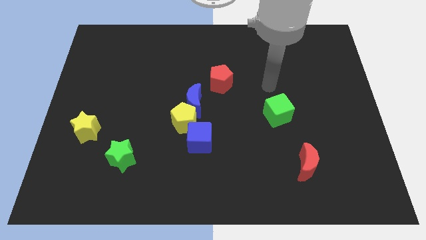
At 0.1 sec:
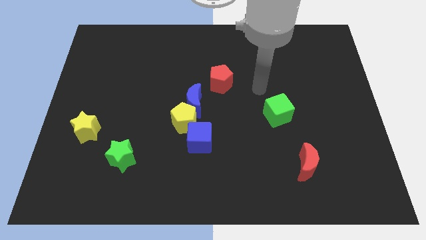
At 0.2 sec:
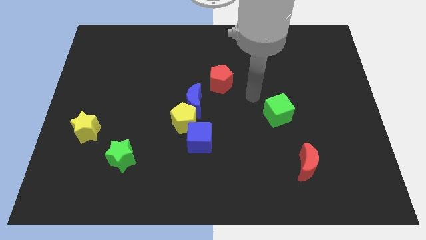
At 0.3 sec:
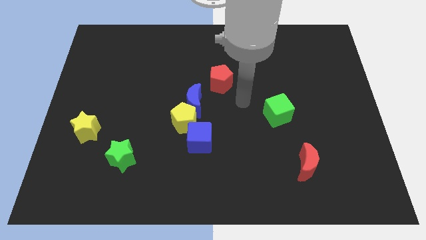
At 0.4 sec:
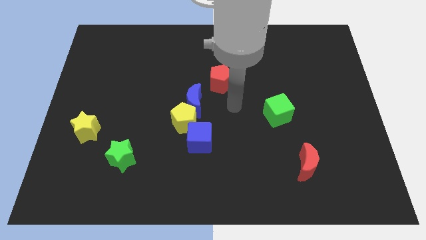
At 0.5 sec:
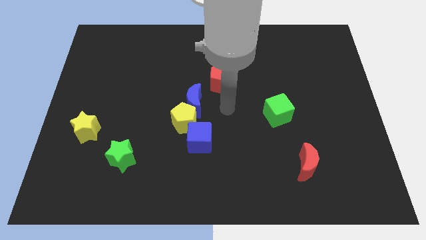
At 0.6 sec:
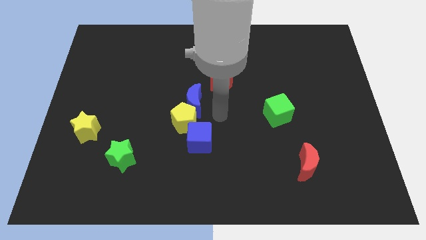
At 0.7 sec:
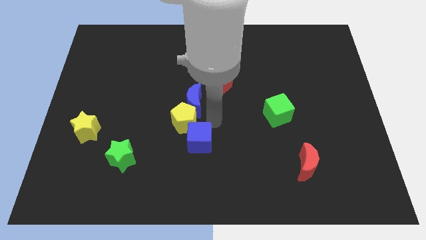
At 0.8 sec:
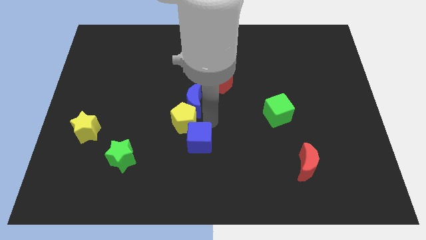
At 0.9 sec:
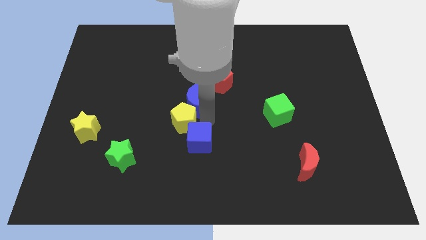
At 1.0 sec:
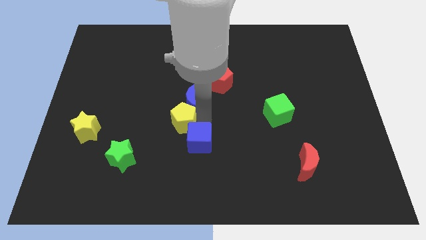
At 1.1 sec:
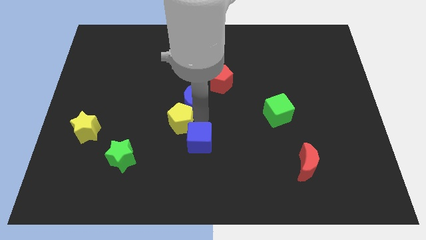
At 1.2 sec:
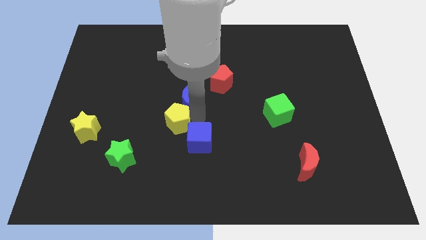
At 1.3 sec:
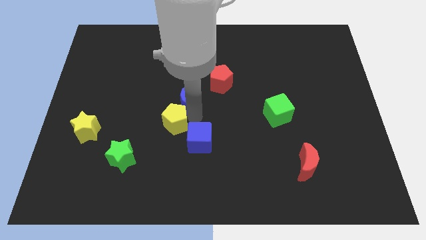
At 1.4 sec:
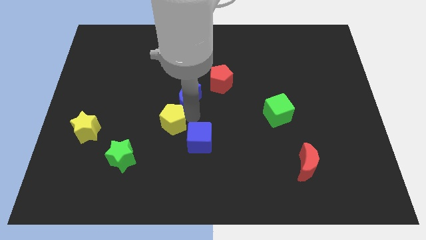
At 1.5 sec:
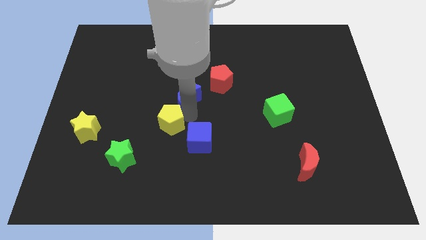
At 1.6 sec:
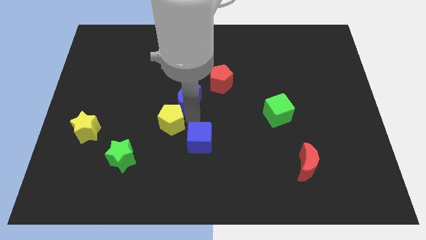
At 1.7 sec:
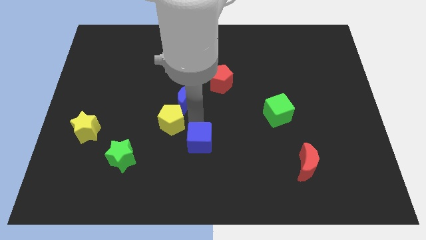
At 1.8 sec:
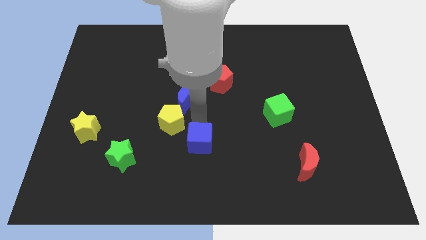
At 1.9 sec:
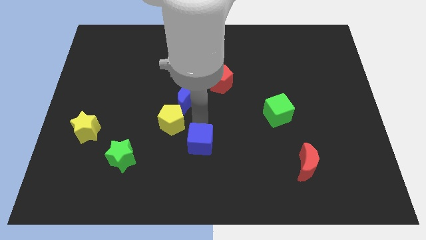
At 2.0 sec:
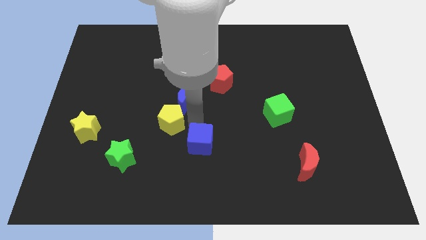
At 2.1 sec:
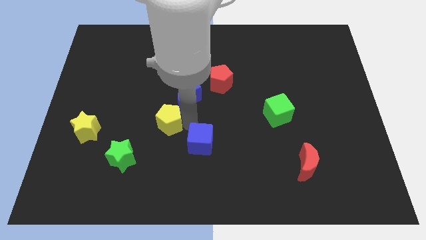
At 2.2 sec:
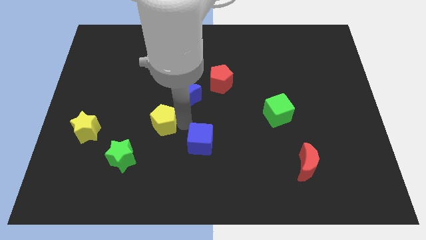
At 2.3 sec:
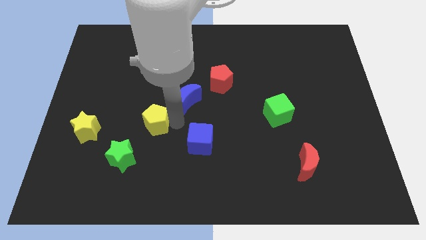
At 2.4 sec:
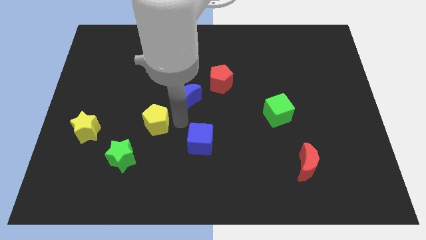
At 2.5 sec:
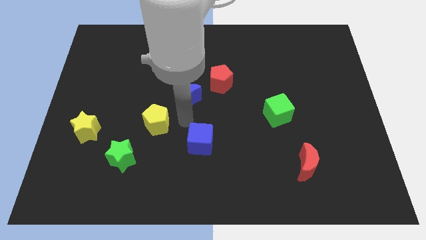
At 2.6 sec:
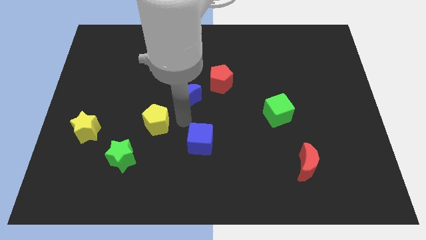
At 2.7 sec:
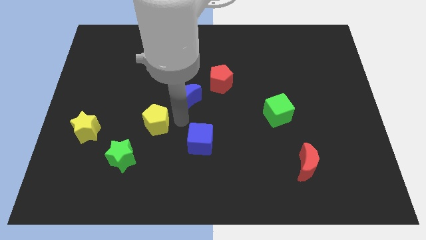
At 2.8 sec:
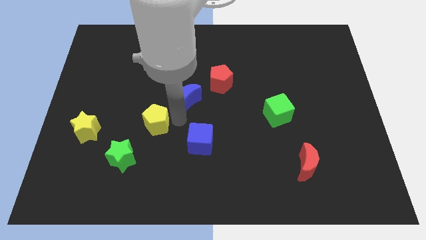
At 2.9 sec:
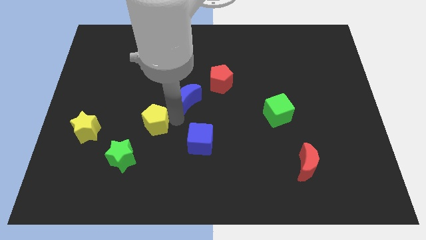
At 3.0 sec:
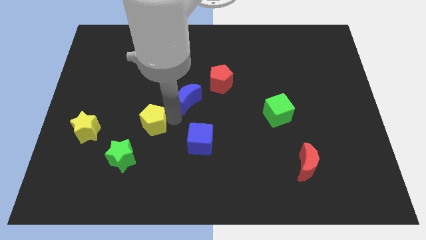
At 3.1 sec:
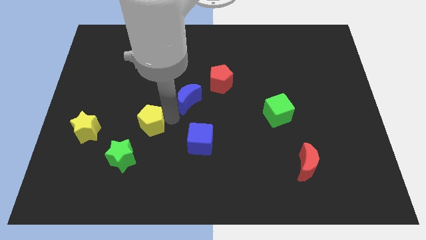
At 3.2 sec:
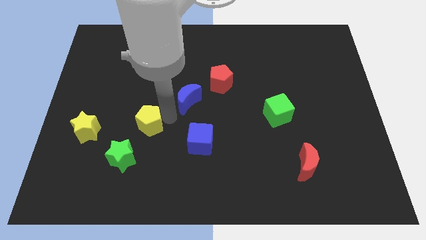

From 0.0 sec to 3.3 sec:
pull the yellow pentagon apart from the blue moon and blue cube

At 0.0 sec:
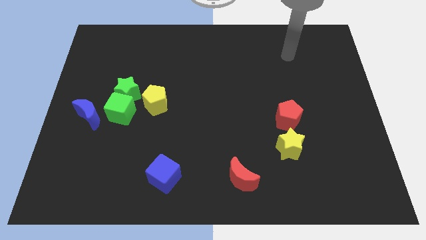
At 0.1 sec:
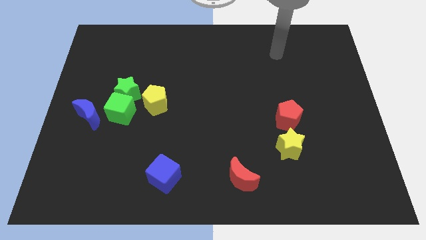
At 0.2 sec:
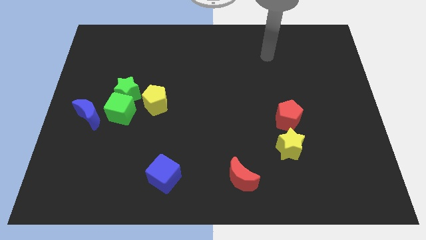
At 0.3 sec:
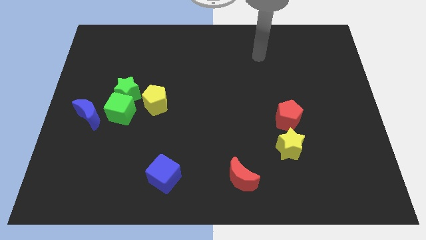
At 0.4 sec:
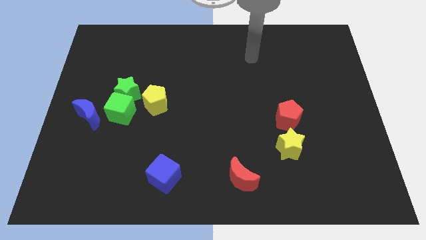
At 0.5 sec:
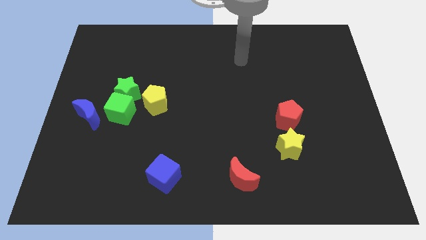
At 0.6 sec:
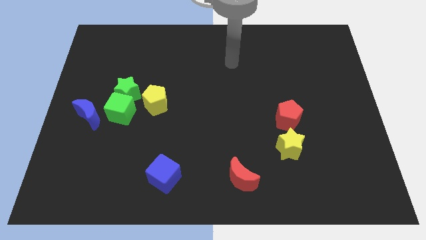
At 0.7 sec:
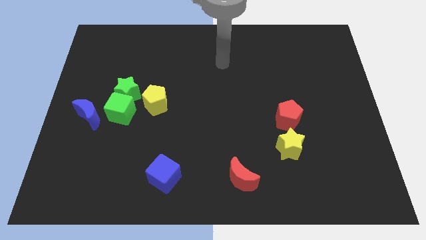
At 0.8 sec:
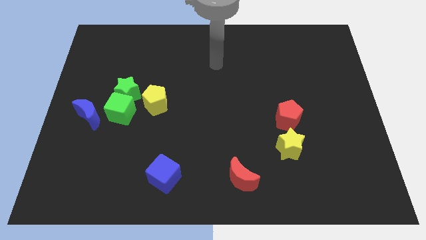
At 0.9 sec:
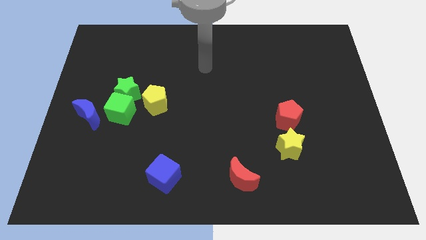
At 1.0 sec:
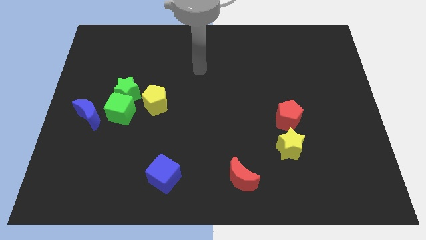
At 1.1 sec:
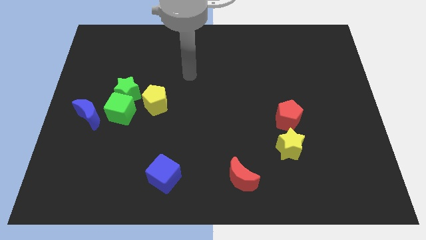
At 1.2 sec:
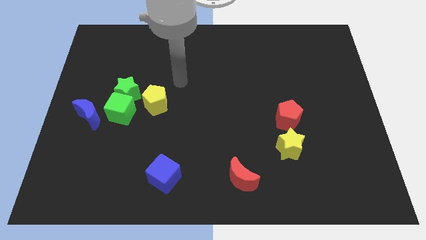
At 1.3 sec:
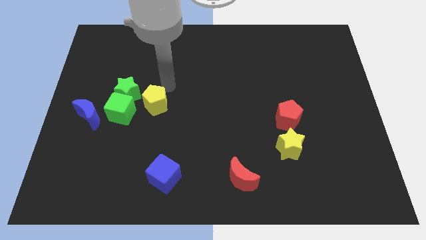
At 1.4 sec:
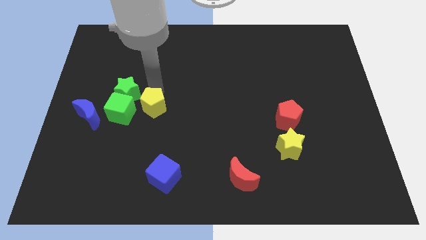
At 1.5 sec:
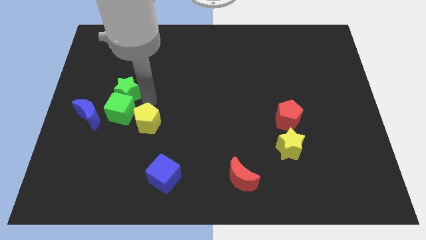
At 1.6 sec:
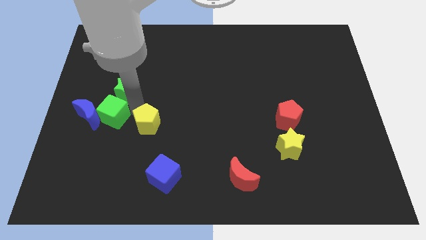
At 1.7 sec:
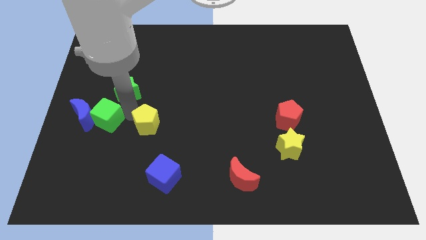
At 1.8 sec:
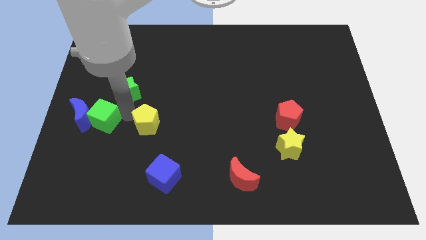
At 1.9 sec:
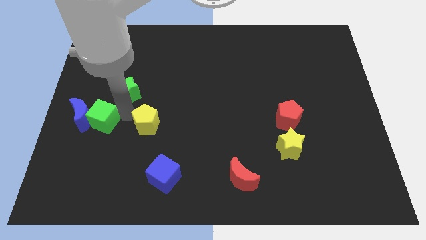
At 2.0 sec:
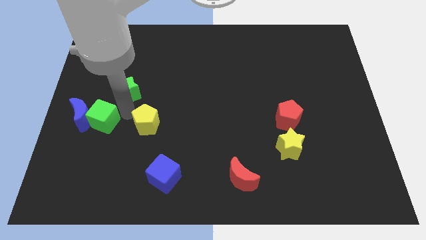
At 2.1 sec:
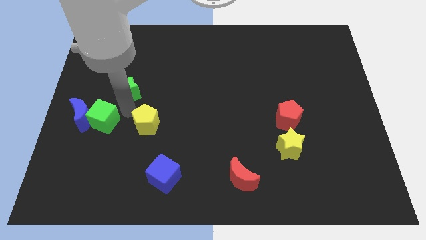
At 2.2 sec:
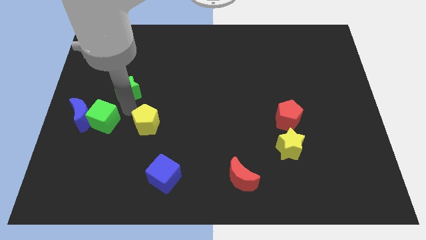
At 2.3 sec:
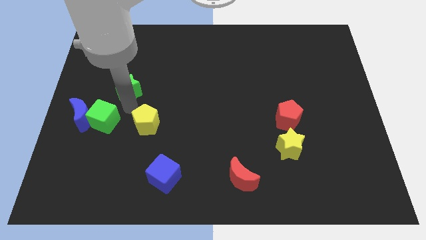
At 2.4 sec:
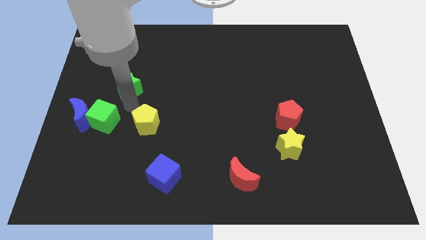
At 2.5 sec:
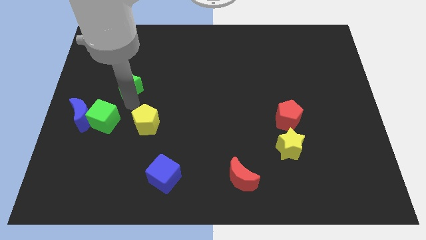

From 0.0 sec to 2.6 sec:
pull the green star apart from the green cube and yellow pentagon

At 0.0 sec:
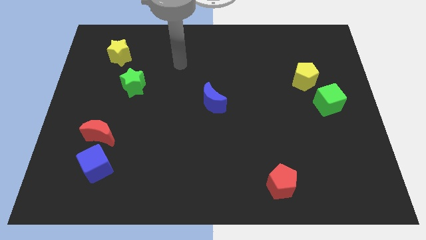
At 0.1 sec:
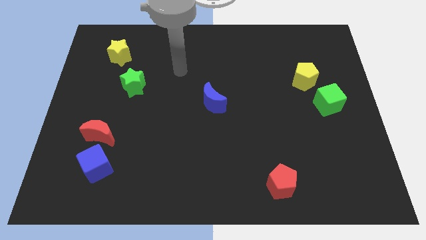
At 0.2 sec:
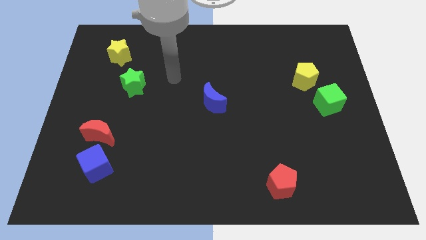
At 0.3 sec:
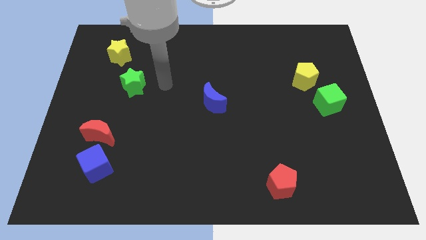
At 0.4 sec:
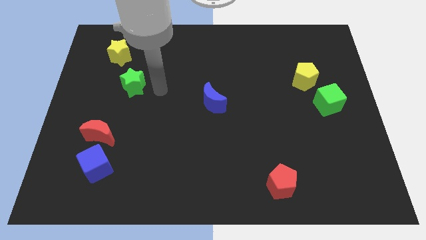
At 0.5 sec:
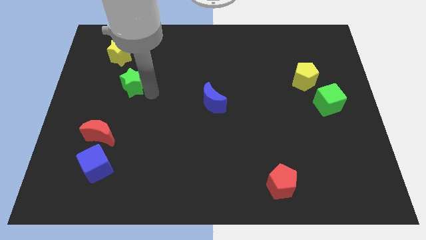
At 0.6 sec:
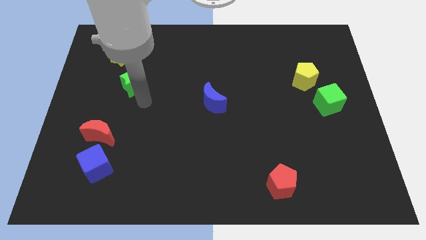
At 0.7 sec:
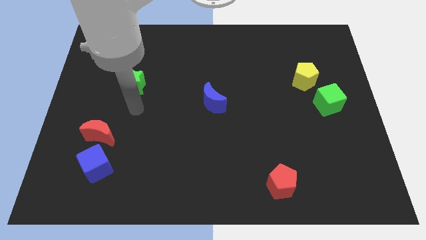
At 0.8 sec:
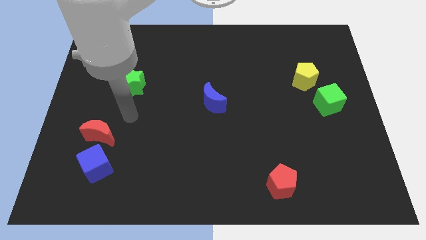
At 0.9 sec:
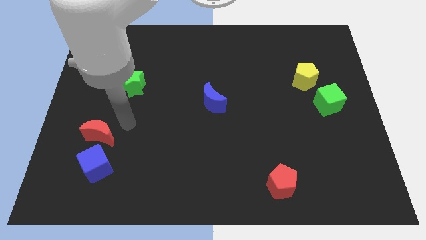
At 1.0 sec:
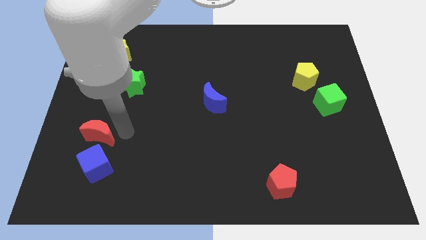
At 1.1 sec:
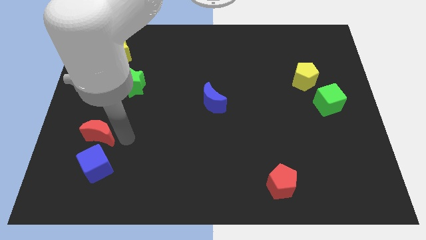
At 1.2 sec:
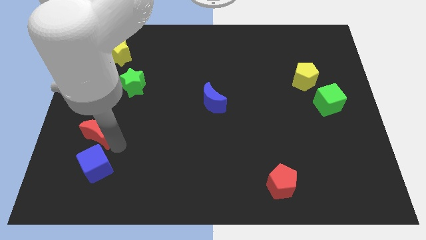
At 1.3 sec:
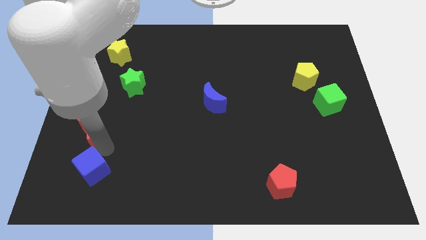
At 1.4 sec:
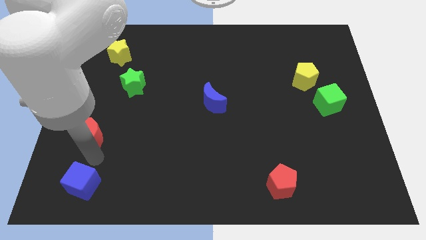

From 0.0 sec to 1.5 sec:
pull the red moon apart from the blue cube

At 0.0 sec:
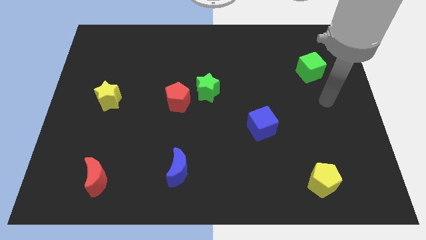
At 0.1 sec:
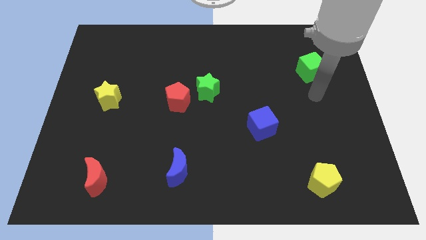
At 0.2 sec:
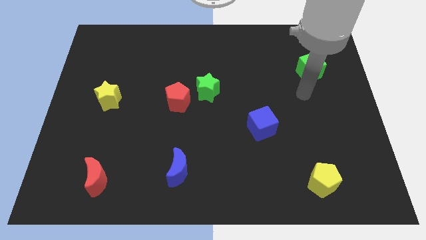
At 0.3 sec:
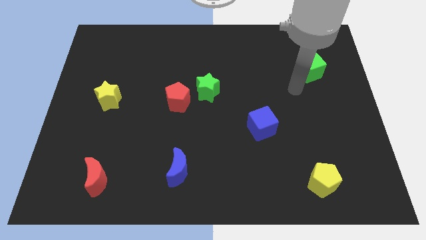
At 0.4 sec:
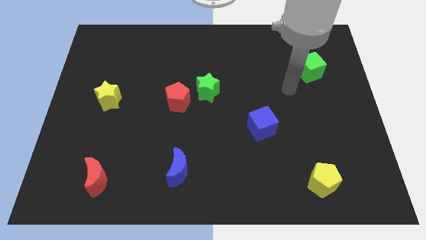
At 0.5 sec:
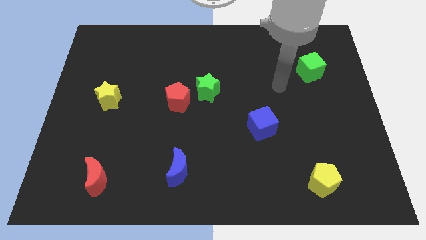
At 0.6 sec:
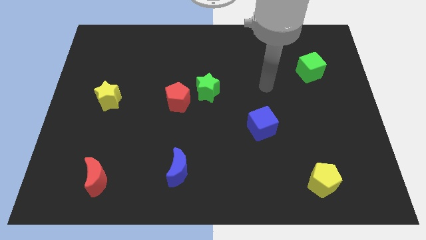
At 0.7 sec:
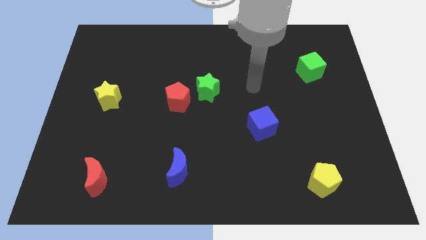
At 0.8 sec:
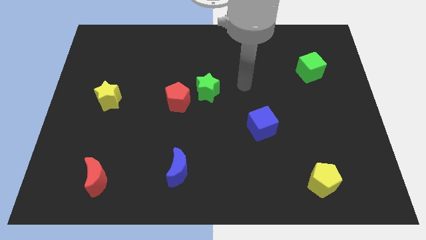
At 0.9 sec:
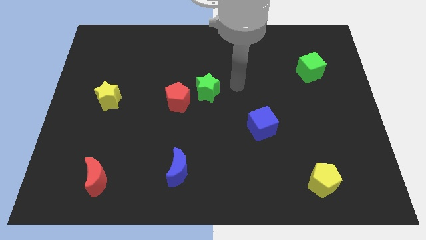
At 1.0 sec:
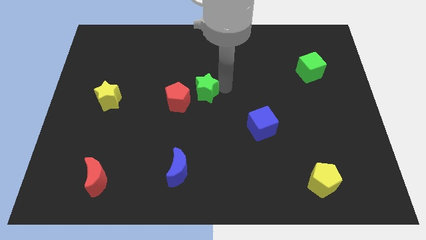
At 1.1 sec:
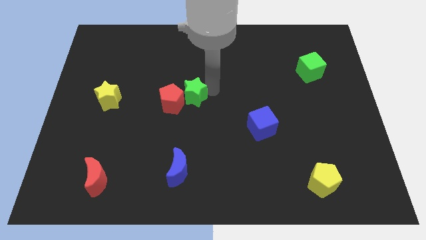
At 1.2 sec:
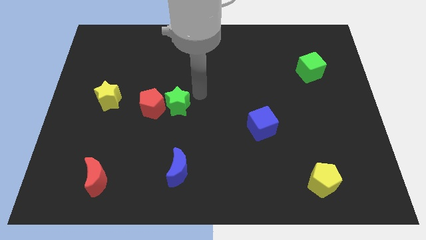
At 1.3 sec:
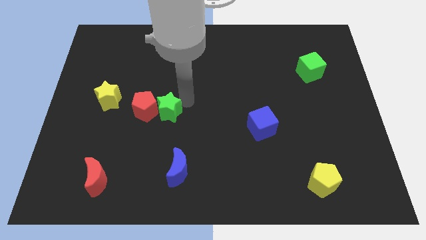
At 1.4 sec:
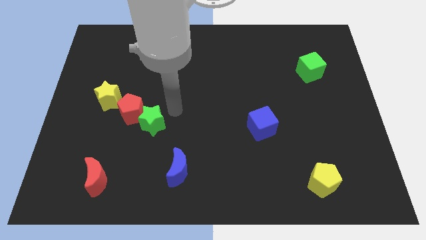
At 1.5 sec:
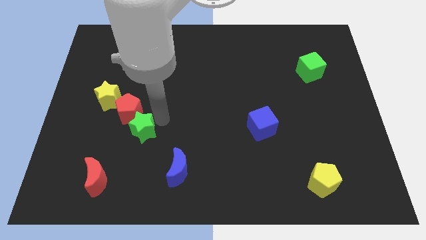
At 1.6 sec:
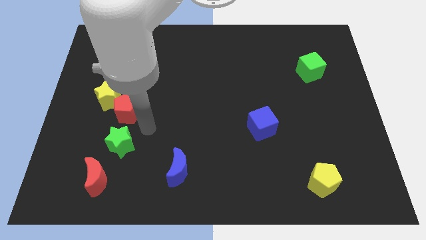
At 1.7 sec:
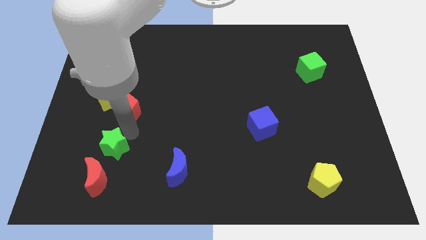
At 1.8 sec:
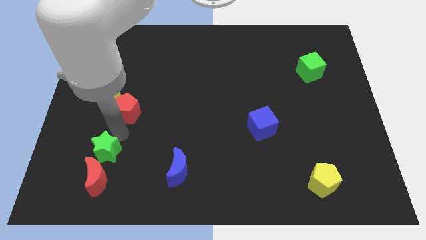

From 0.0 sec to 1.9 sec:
move the red pentagon away from the green star

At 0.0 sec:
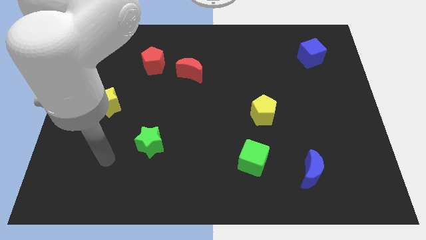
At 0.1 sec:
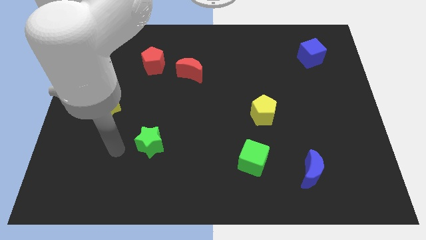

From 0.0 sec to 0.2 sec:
move the red moon away from the red pentagon
